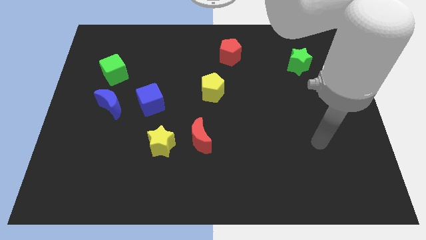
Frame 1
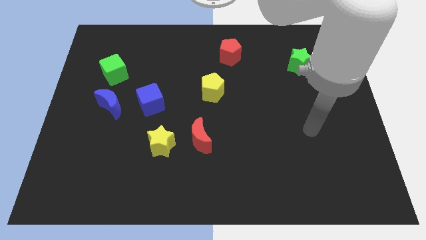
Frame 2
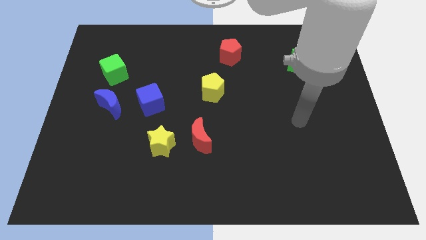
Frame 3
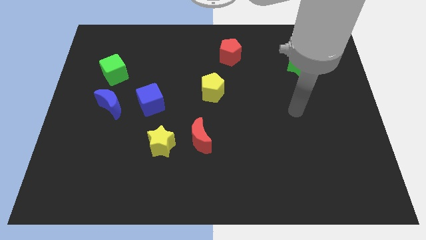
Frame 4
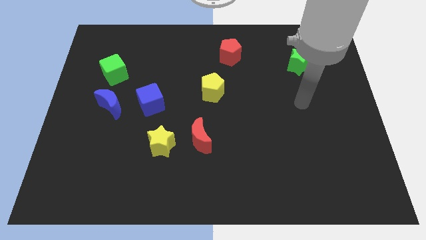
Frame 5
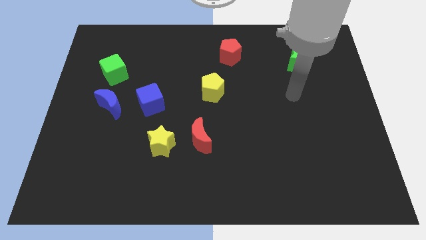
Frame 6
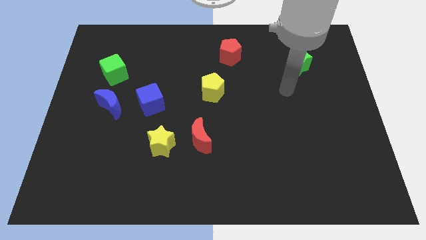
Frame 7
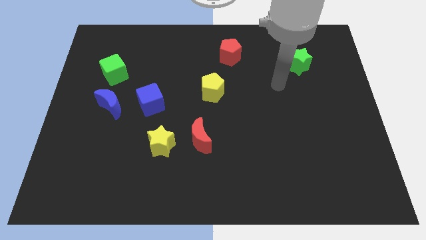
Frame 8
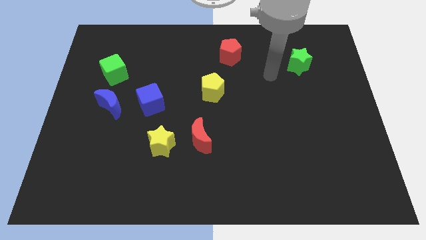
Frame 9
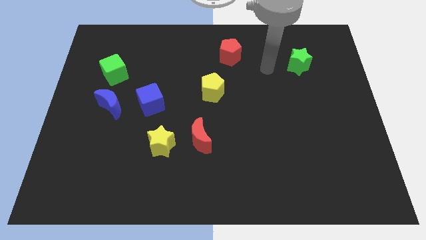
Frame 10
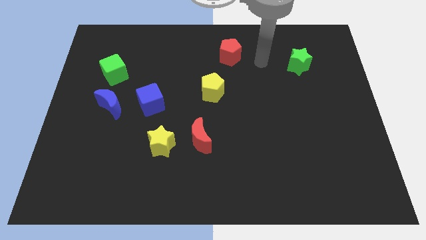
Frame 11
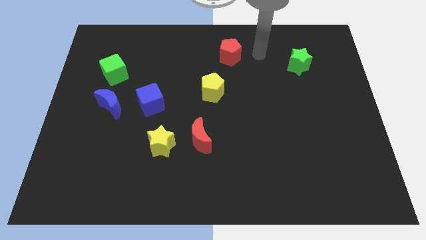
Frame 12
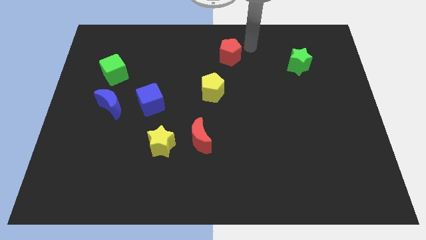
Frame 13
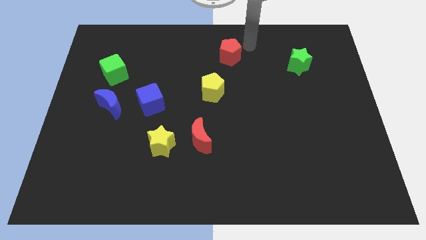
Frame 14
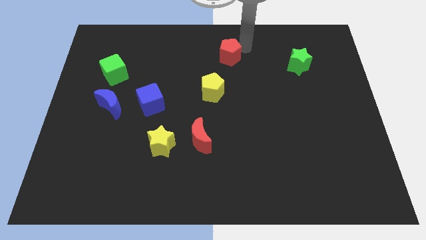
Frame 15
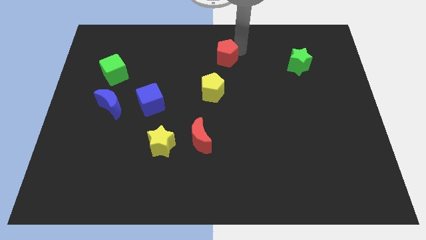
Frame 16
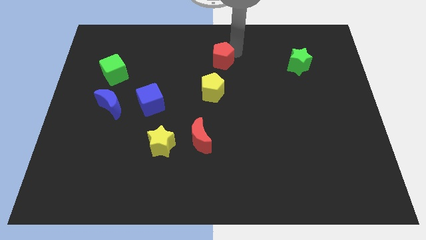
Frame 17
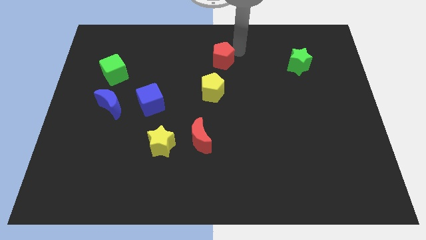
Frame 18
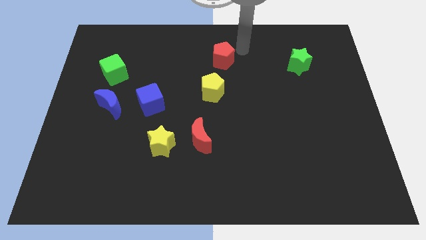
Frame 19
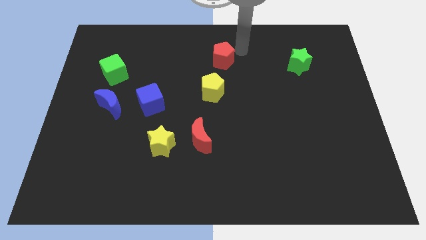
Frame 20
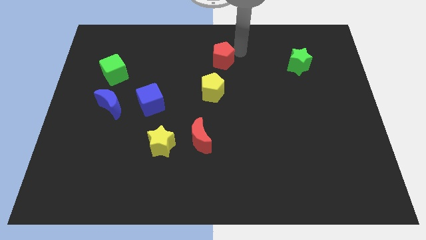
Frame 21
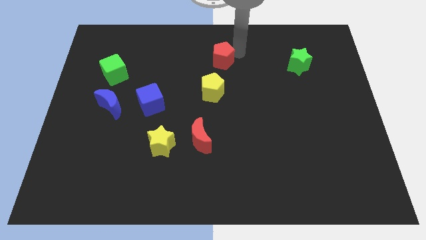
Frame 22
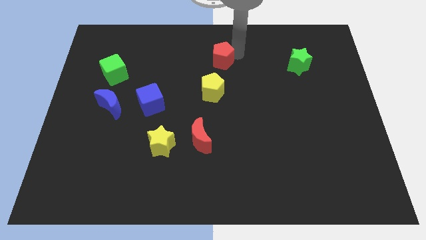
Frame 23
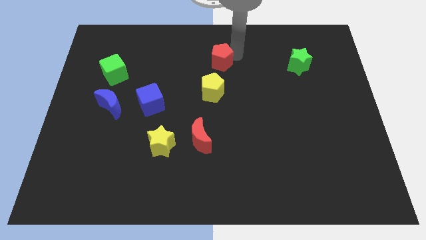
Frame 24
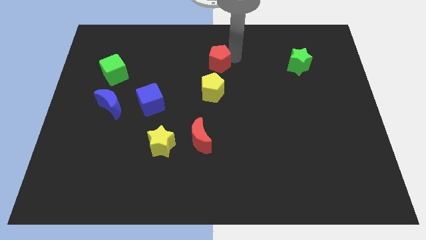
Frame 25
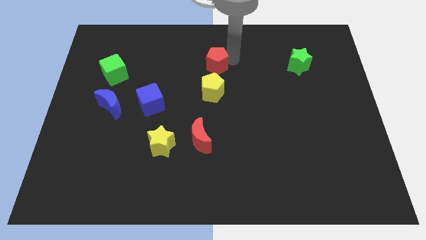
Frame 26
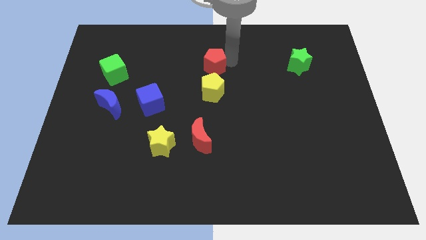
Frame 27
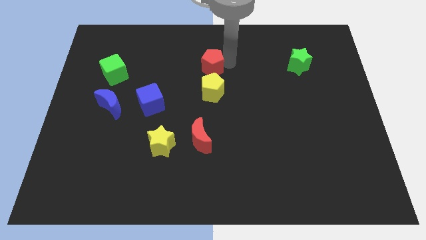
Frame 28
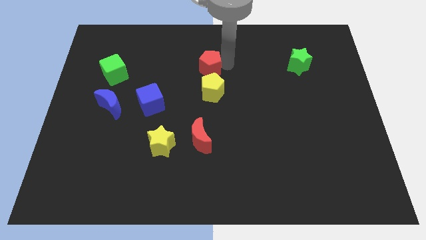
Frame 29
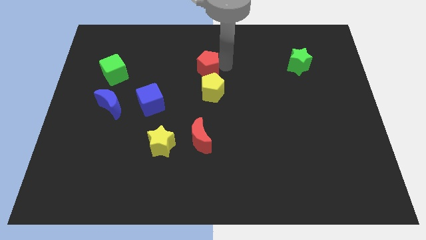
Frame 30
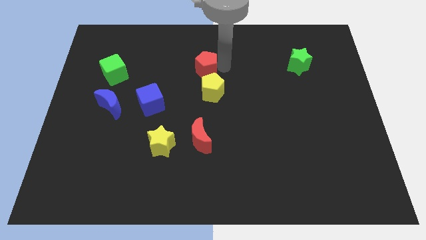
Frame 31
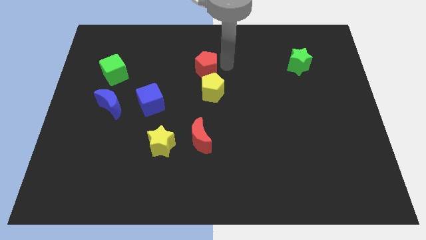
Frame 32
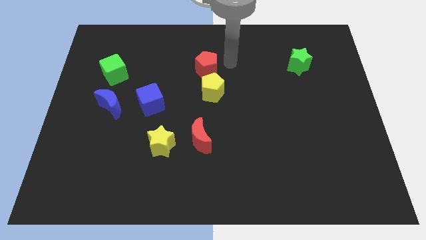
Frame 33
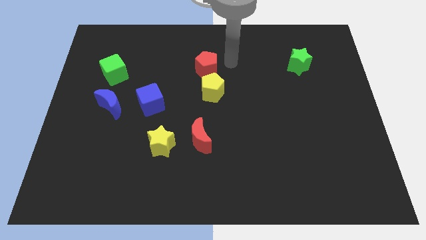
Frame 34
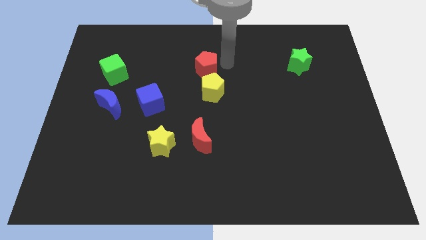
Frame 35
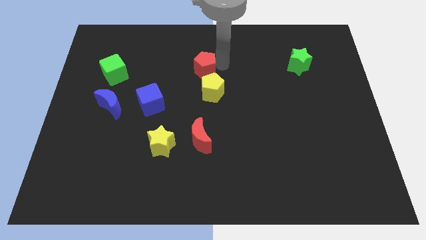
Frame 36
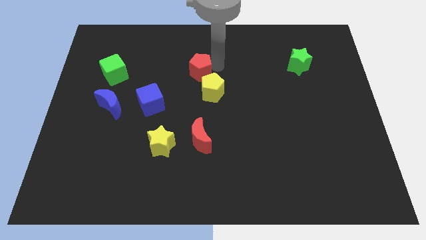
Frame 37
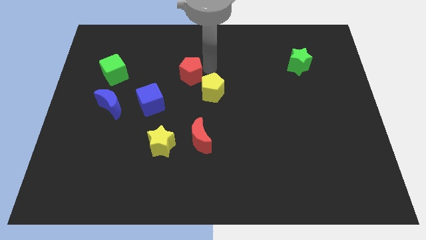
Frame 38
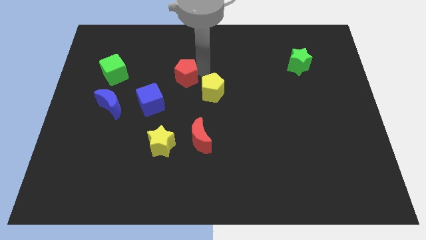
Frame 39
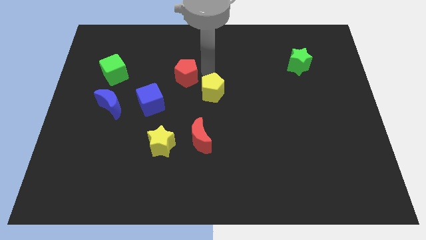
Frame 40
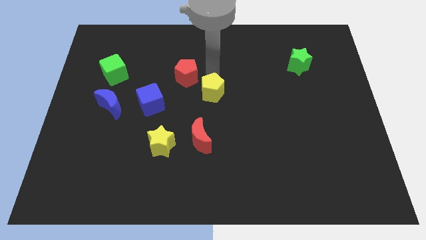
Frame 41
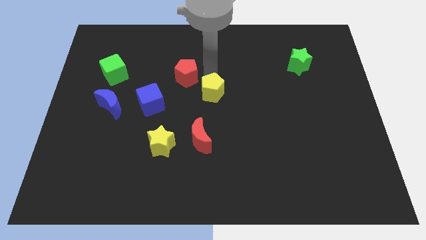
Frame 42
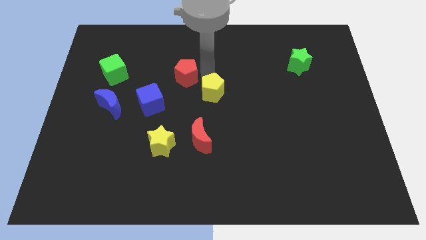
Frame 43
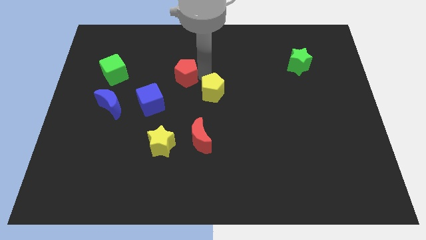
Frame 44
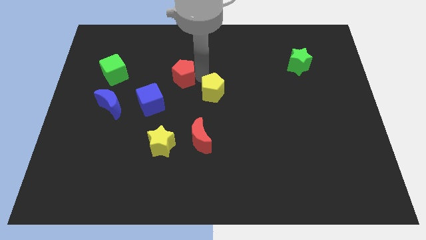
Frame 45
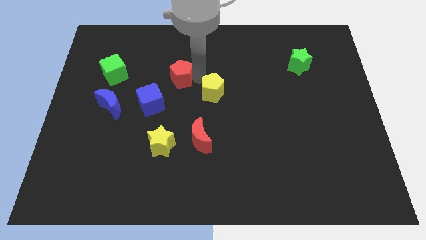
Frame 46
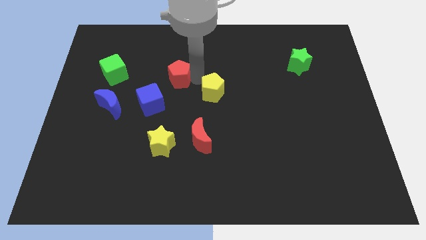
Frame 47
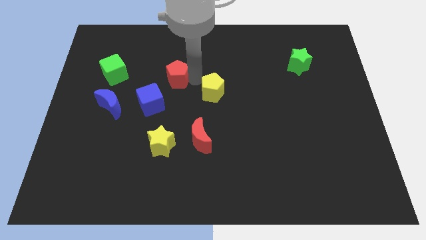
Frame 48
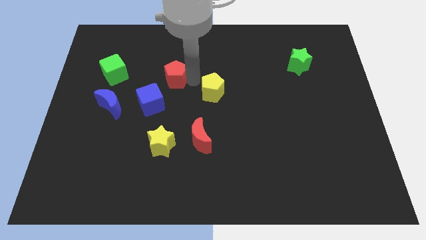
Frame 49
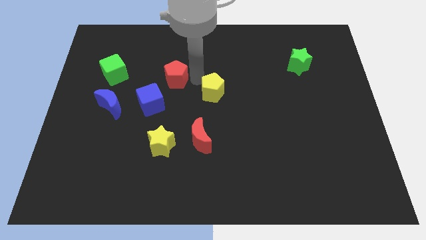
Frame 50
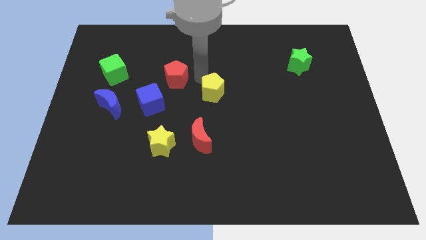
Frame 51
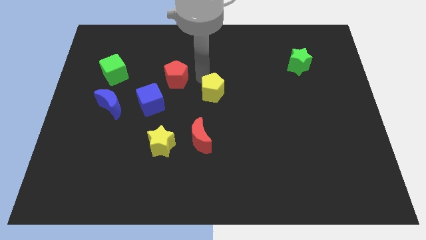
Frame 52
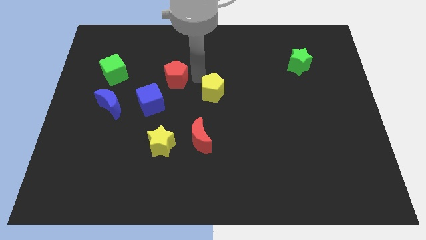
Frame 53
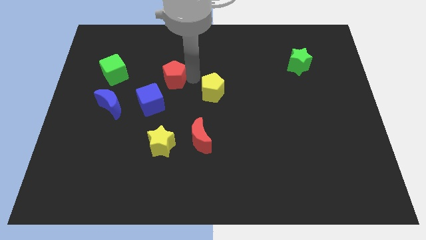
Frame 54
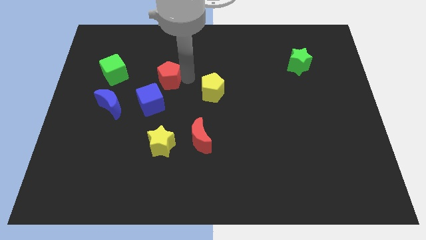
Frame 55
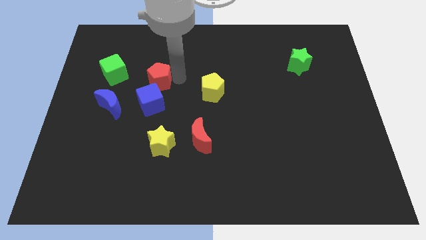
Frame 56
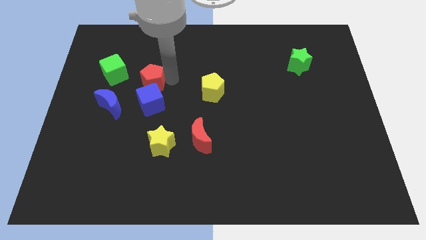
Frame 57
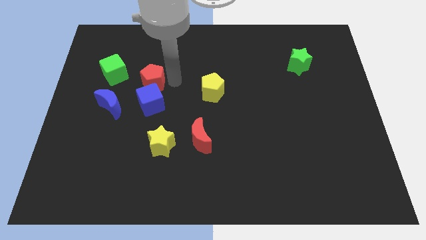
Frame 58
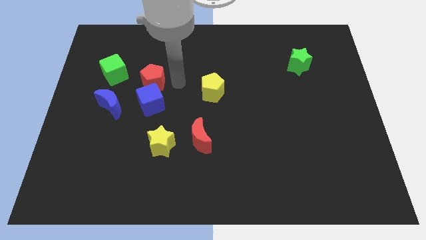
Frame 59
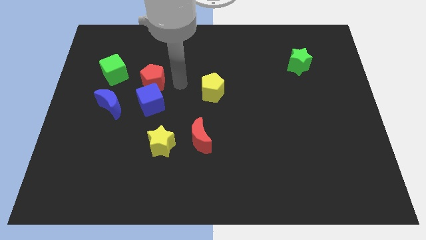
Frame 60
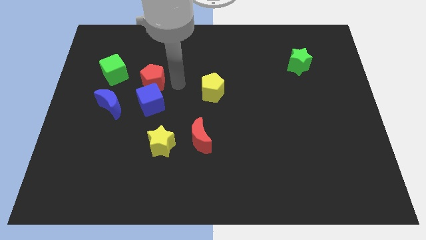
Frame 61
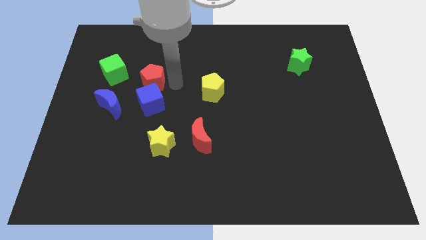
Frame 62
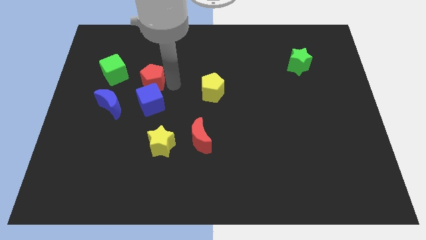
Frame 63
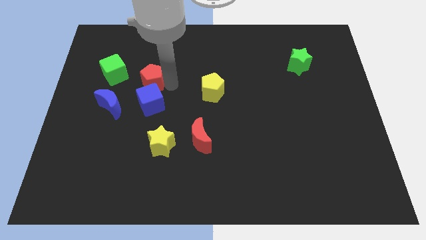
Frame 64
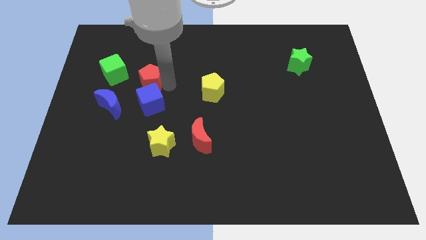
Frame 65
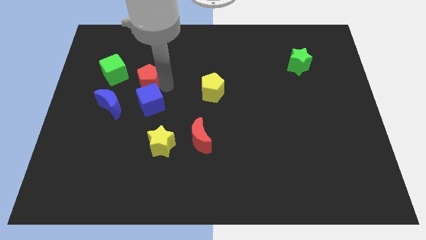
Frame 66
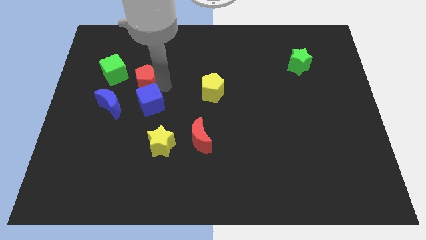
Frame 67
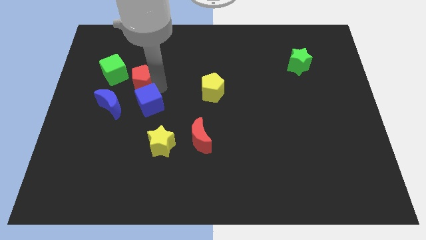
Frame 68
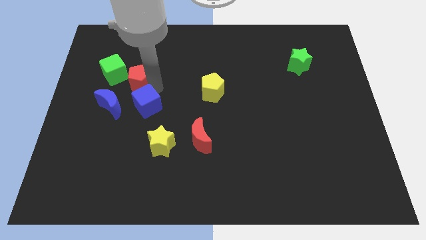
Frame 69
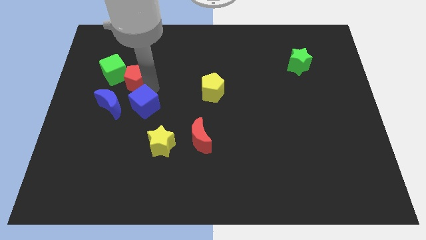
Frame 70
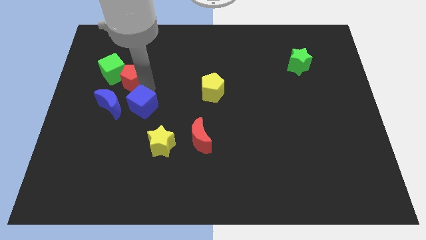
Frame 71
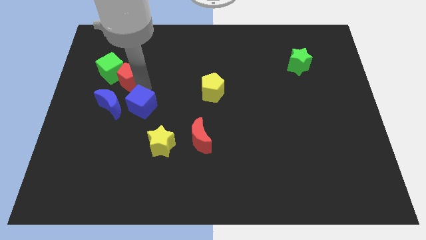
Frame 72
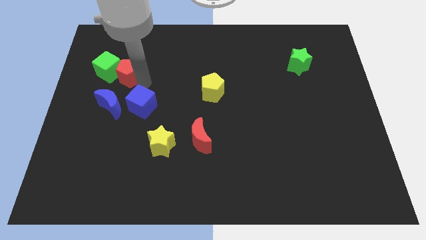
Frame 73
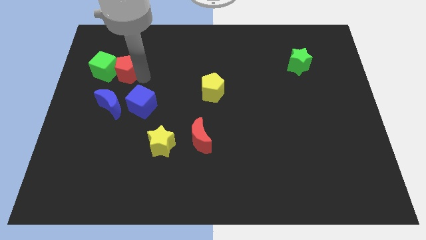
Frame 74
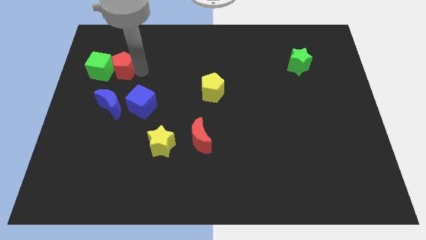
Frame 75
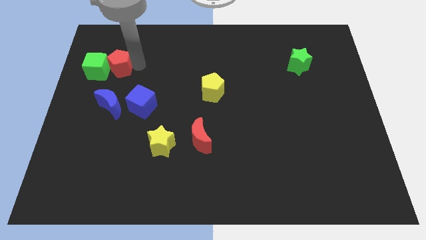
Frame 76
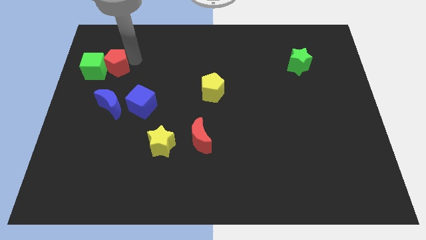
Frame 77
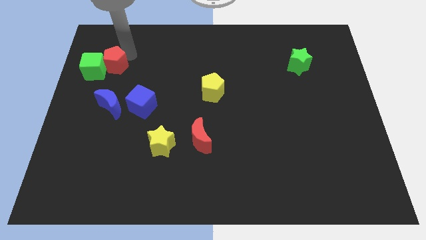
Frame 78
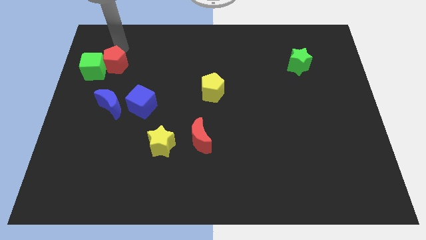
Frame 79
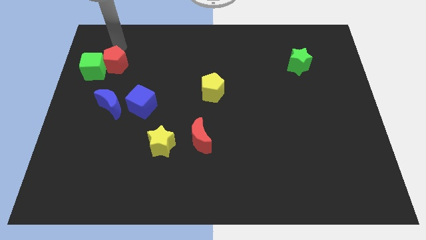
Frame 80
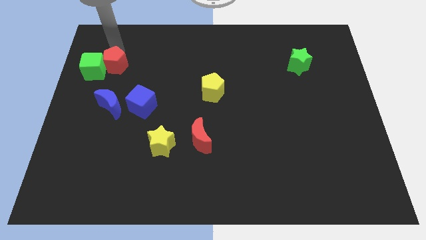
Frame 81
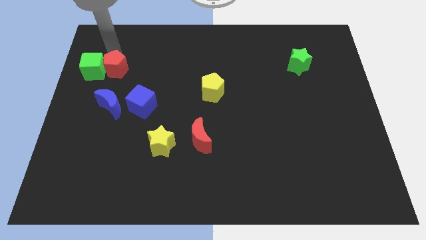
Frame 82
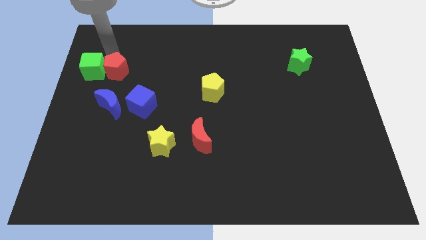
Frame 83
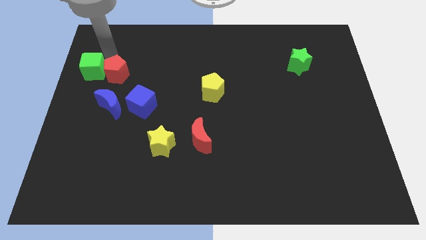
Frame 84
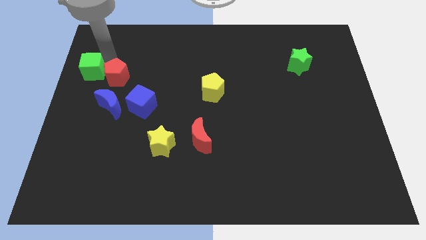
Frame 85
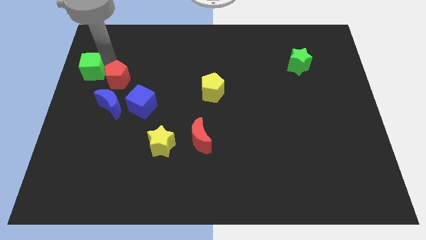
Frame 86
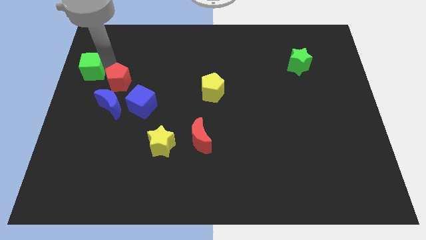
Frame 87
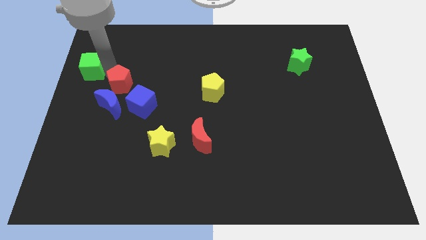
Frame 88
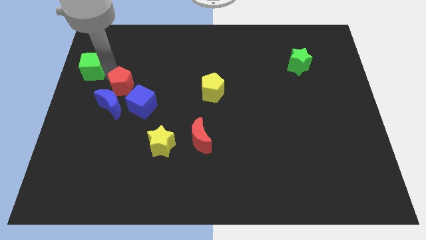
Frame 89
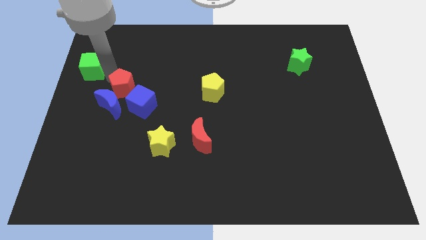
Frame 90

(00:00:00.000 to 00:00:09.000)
move the red pentagon to the blue moon
